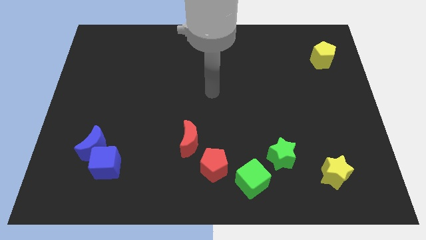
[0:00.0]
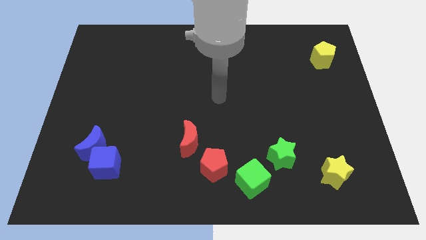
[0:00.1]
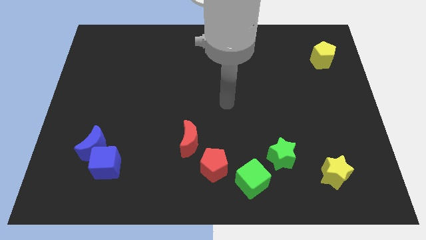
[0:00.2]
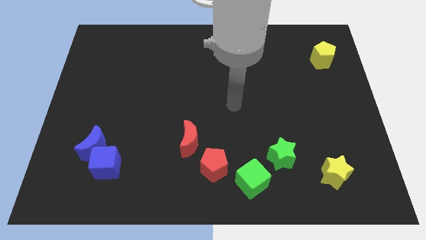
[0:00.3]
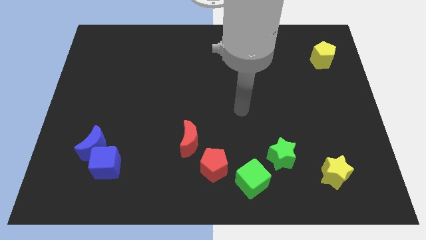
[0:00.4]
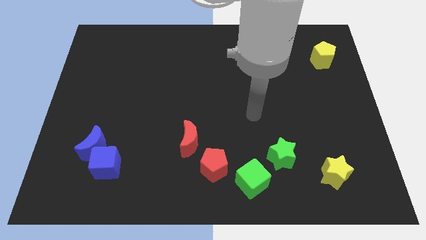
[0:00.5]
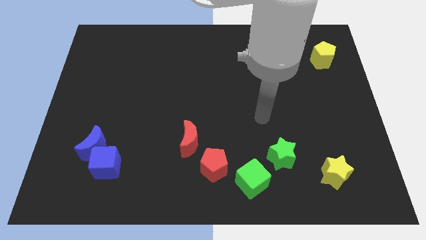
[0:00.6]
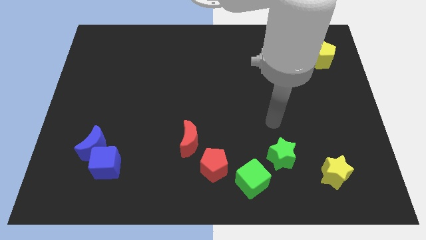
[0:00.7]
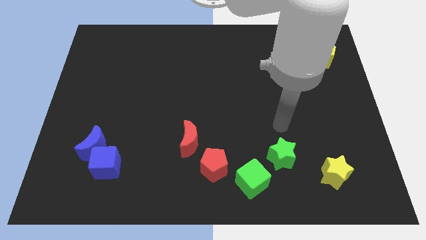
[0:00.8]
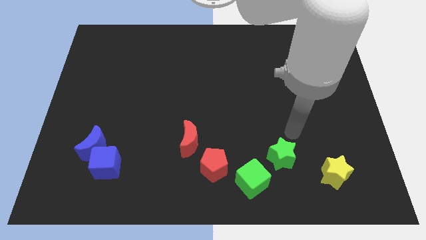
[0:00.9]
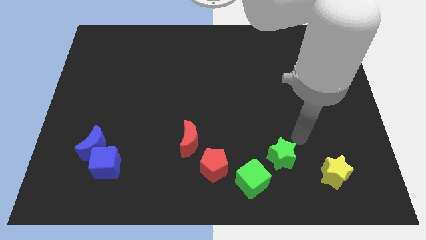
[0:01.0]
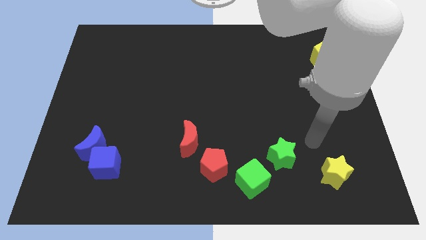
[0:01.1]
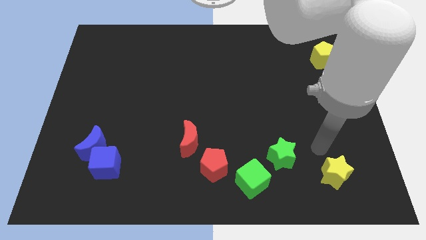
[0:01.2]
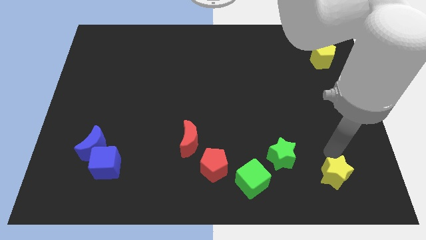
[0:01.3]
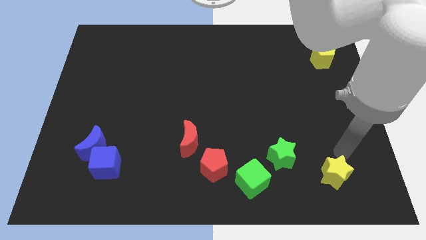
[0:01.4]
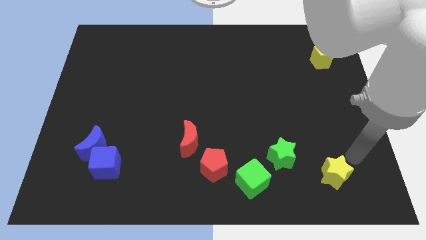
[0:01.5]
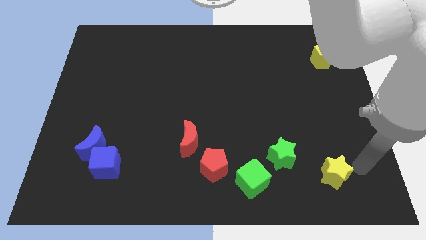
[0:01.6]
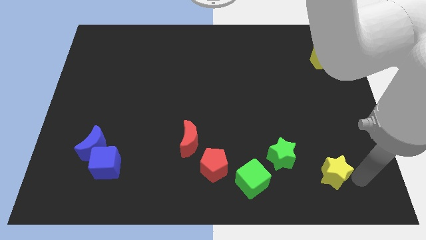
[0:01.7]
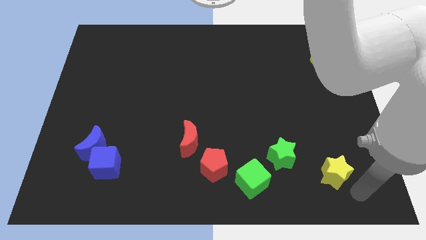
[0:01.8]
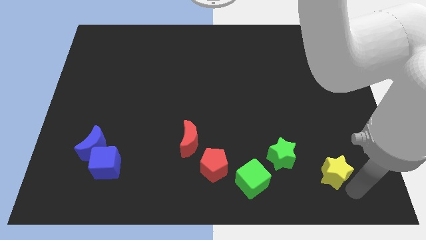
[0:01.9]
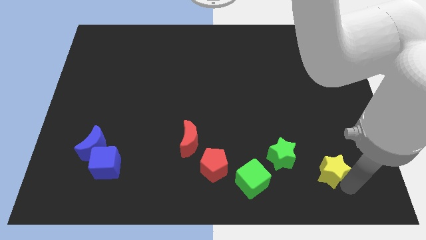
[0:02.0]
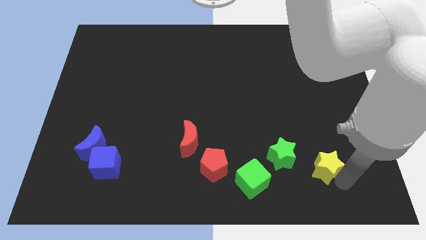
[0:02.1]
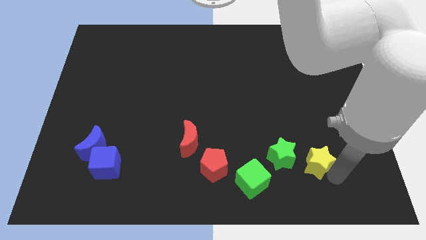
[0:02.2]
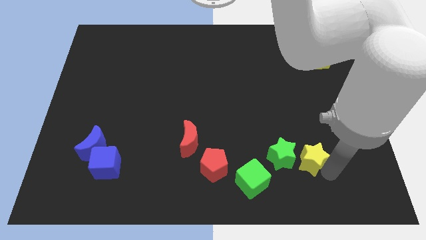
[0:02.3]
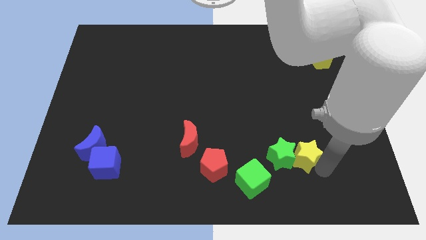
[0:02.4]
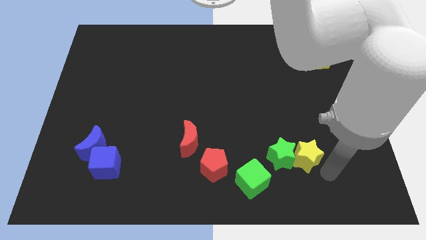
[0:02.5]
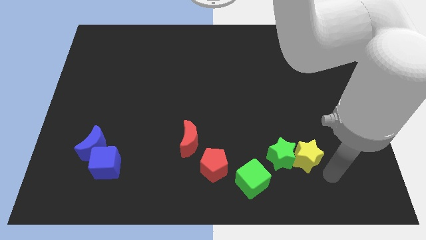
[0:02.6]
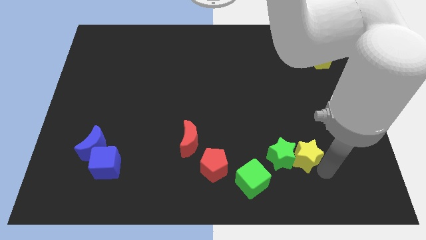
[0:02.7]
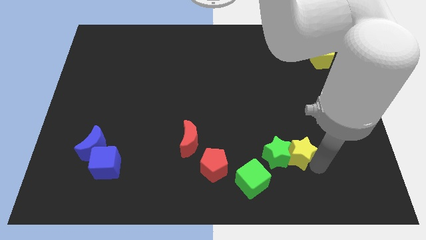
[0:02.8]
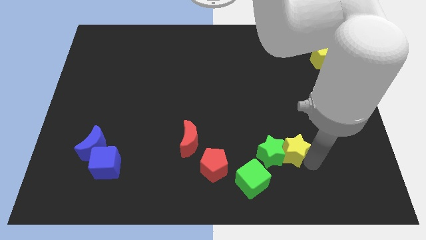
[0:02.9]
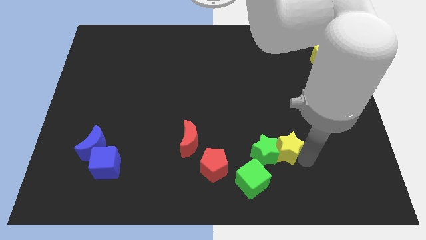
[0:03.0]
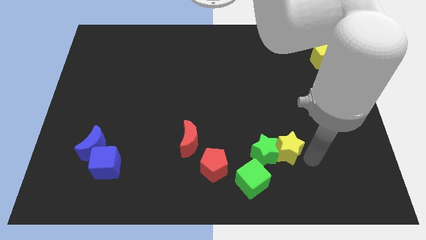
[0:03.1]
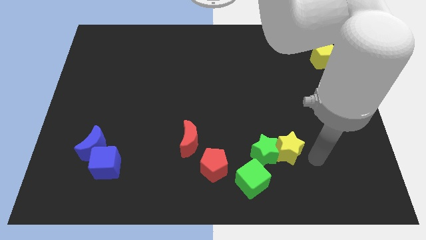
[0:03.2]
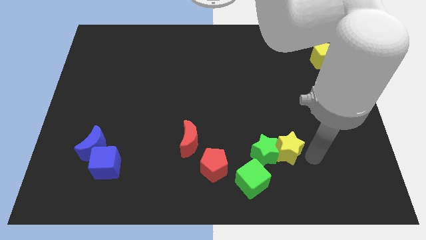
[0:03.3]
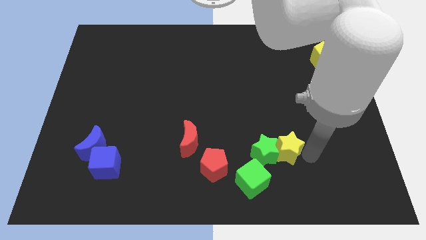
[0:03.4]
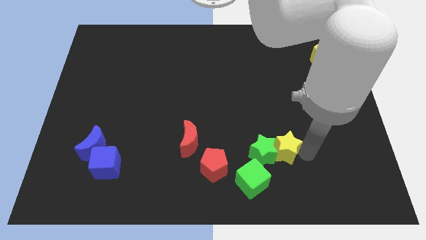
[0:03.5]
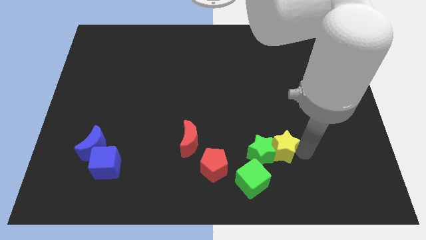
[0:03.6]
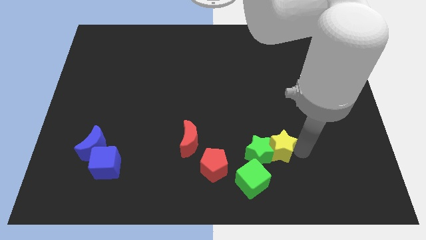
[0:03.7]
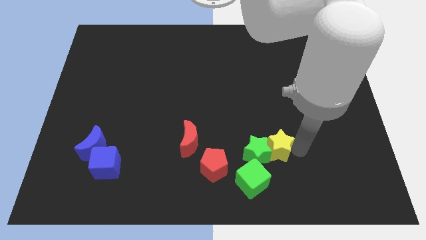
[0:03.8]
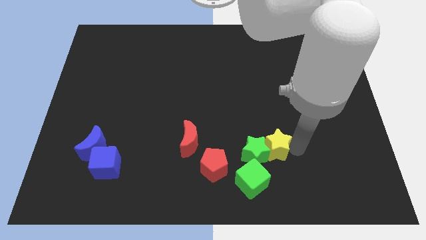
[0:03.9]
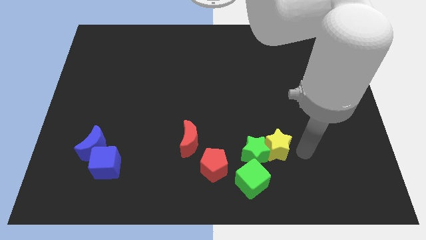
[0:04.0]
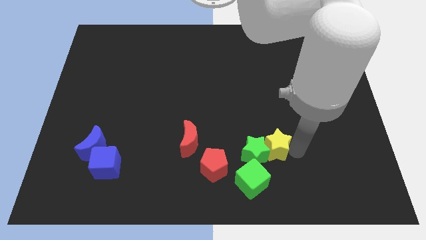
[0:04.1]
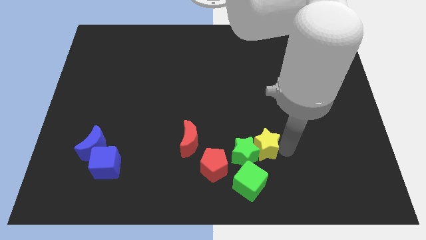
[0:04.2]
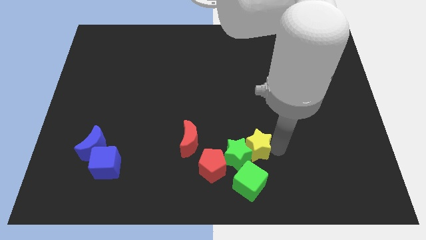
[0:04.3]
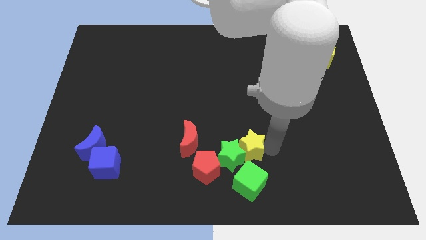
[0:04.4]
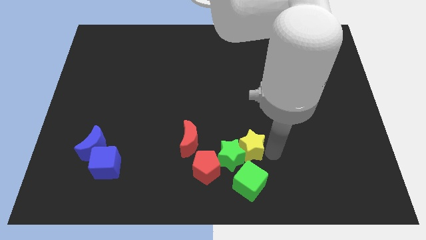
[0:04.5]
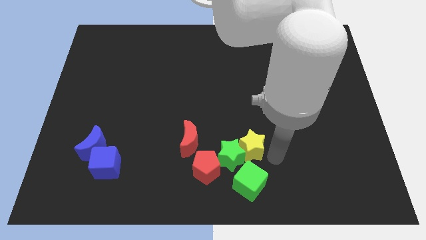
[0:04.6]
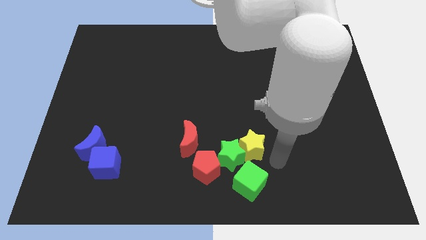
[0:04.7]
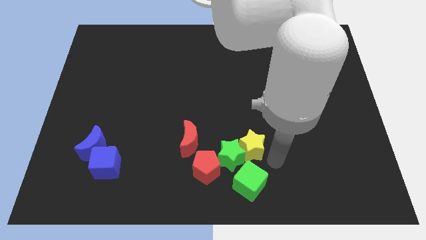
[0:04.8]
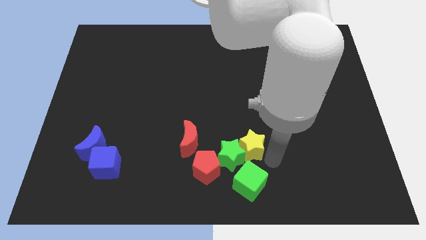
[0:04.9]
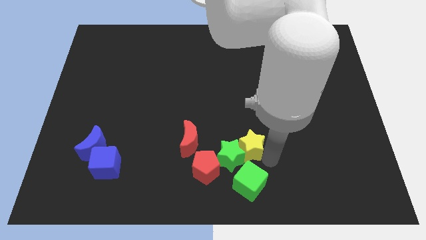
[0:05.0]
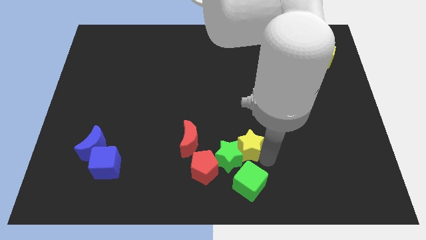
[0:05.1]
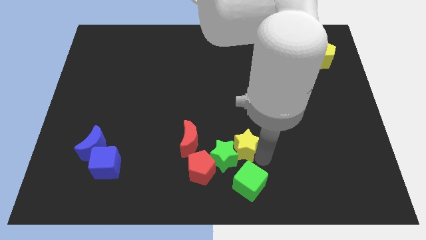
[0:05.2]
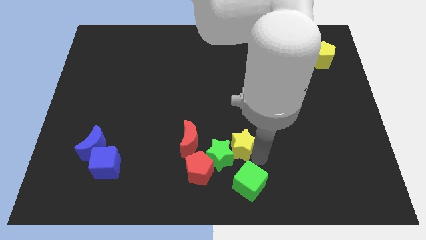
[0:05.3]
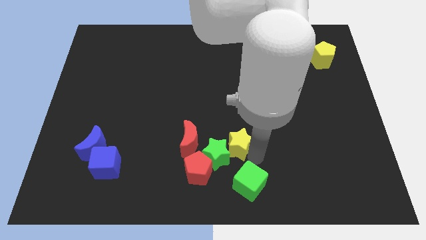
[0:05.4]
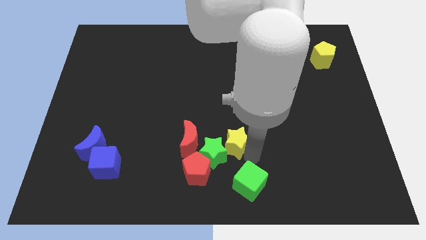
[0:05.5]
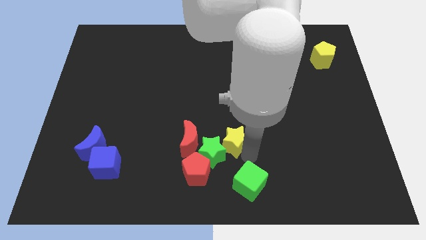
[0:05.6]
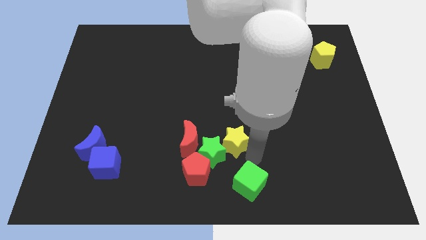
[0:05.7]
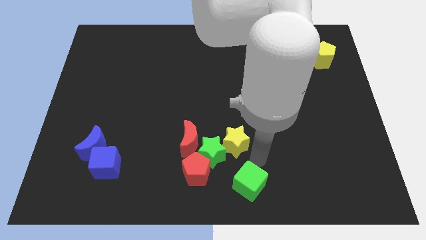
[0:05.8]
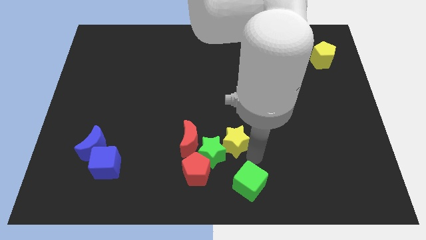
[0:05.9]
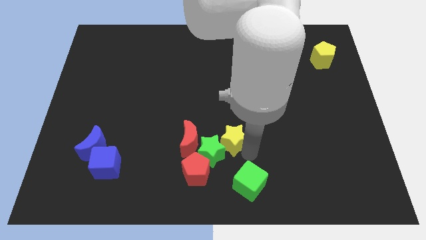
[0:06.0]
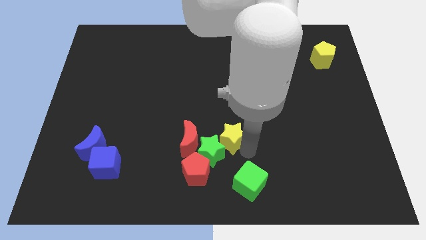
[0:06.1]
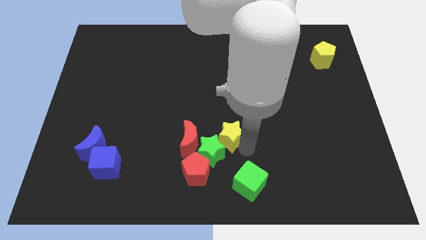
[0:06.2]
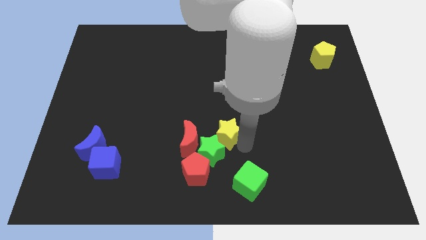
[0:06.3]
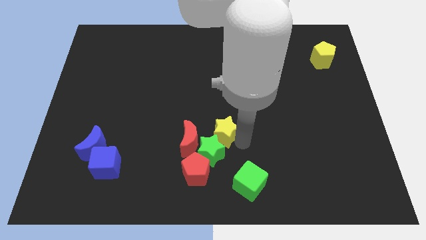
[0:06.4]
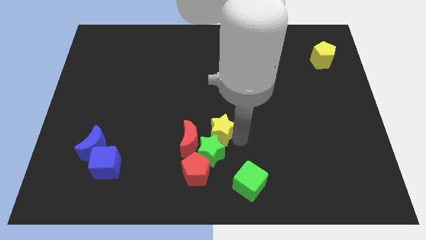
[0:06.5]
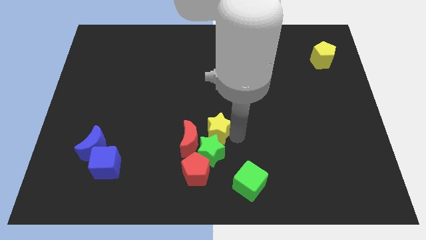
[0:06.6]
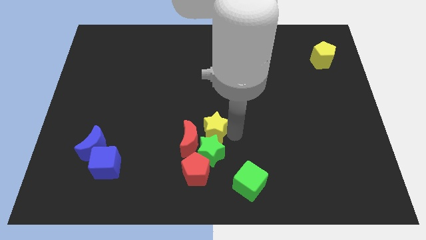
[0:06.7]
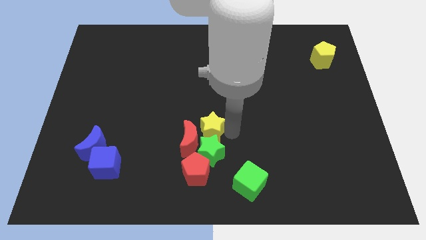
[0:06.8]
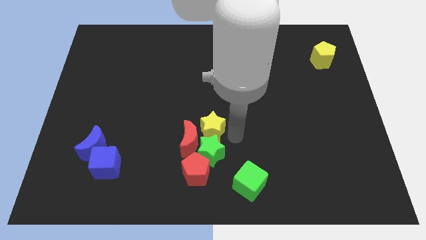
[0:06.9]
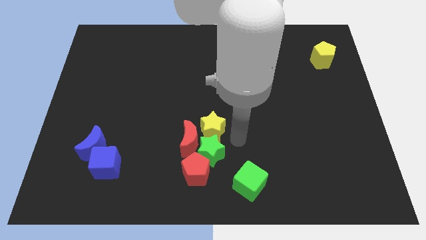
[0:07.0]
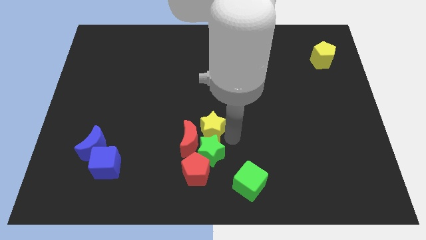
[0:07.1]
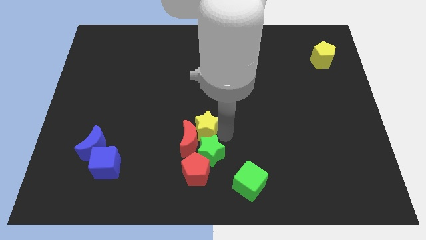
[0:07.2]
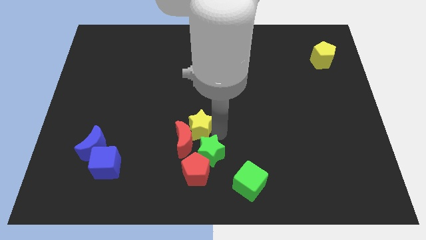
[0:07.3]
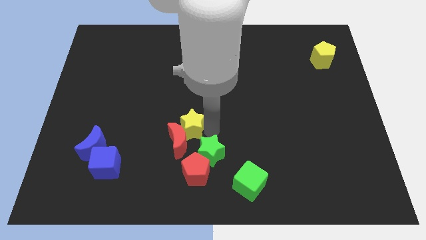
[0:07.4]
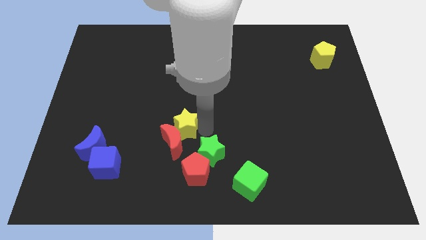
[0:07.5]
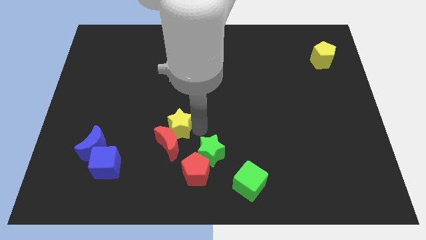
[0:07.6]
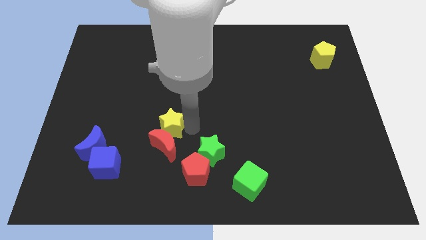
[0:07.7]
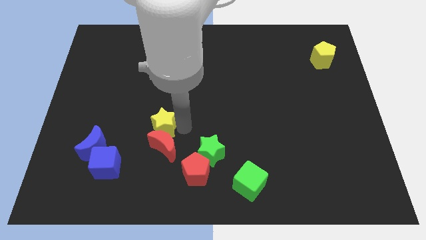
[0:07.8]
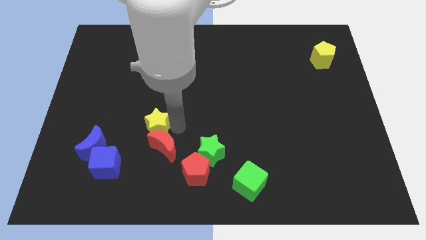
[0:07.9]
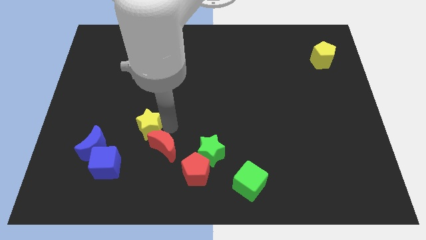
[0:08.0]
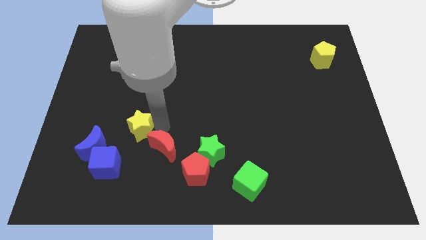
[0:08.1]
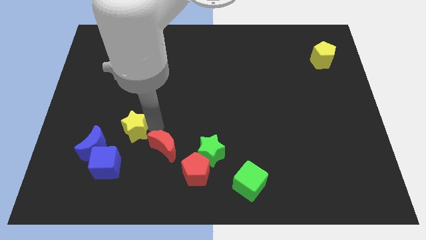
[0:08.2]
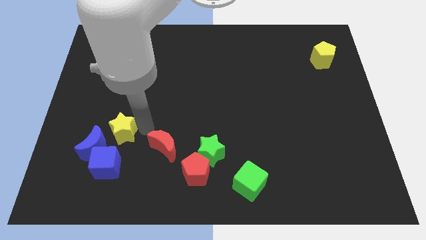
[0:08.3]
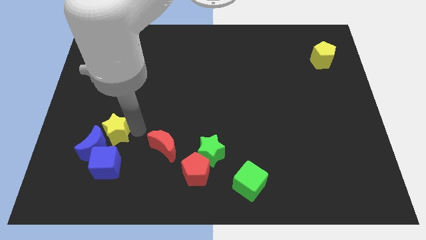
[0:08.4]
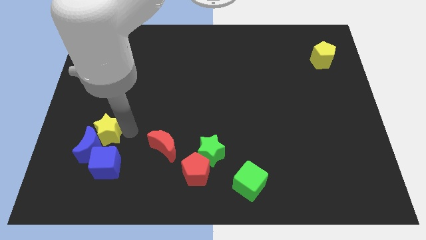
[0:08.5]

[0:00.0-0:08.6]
move the yellow star diagonally up and to the left of the blue cube
